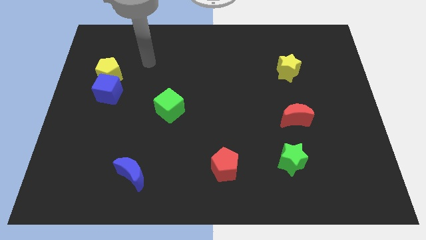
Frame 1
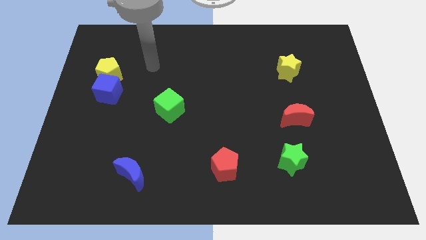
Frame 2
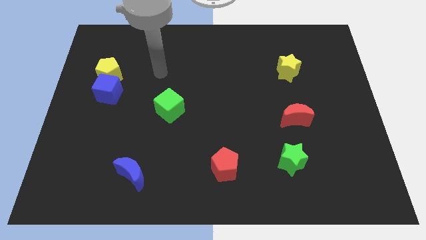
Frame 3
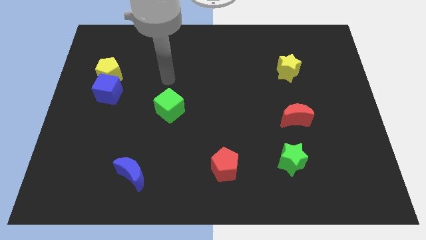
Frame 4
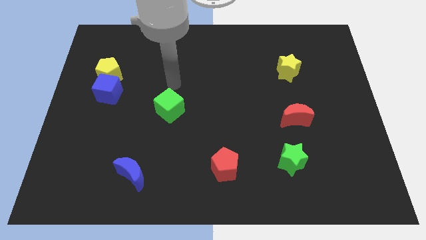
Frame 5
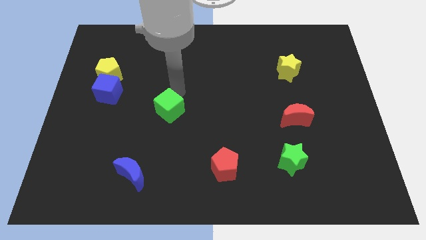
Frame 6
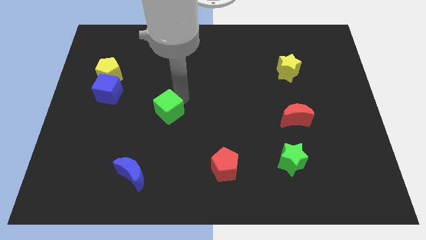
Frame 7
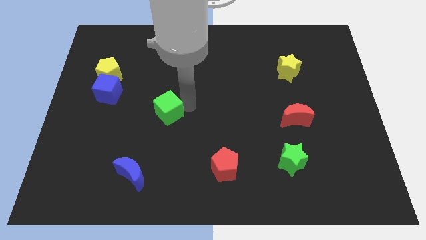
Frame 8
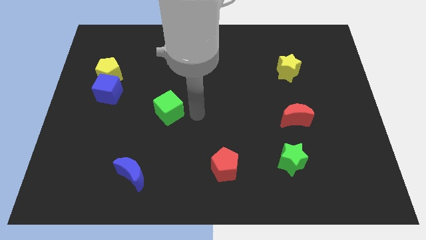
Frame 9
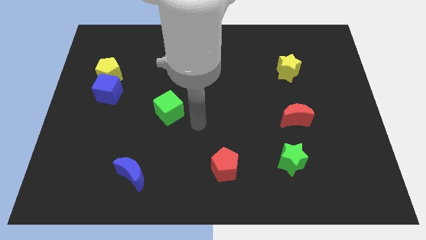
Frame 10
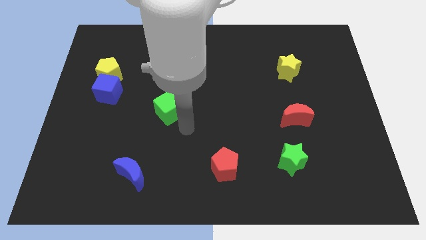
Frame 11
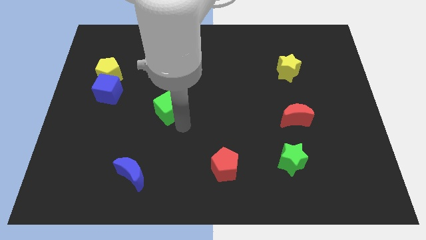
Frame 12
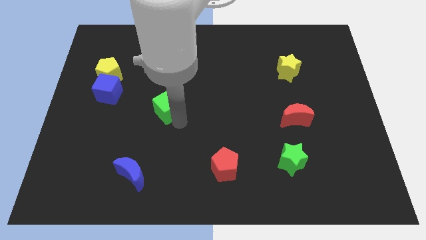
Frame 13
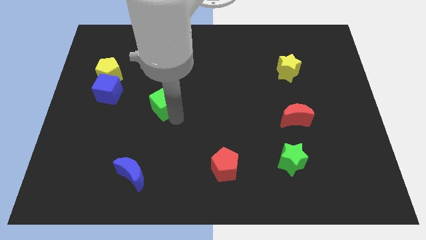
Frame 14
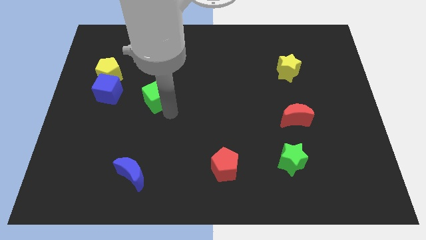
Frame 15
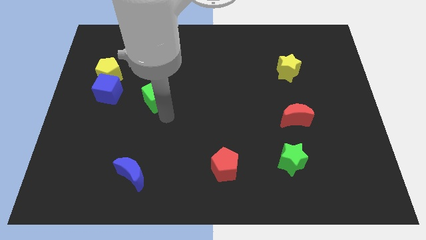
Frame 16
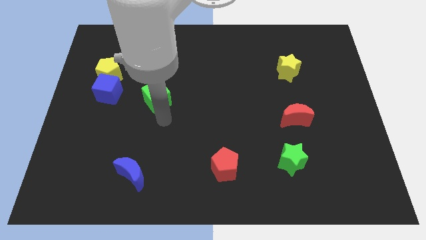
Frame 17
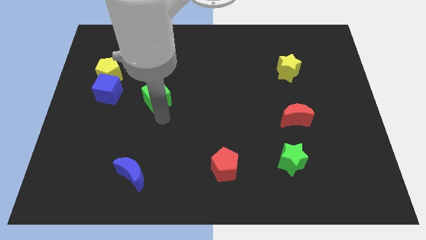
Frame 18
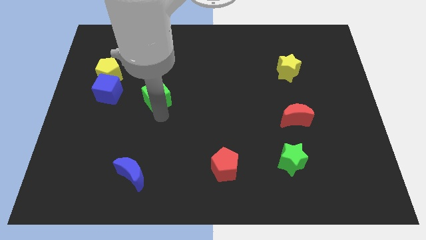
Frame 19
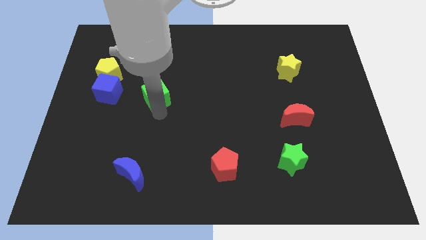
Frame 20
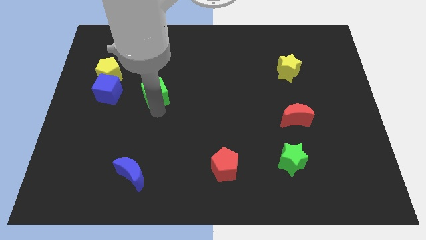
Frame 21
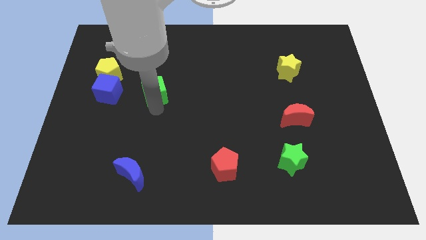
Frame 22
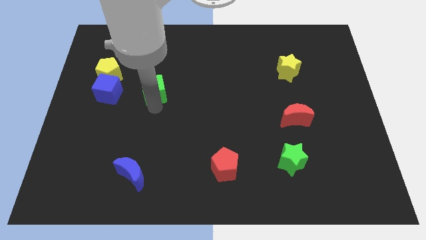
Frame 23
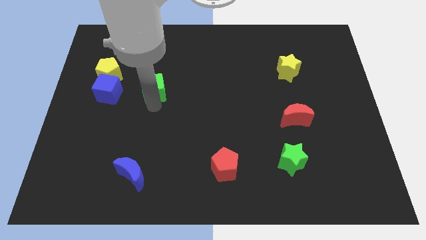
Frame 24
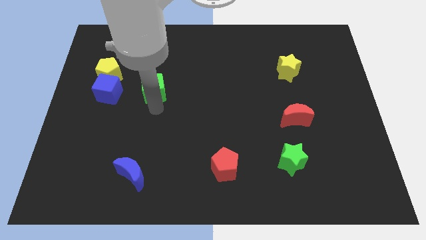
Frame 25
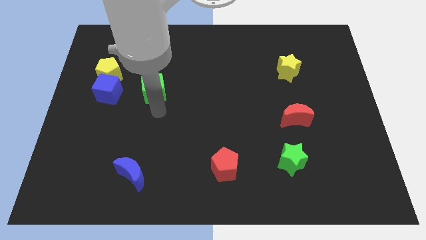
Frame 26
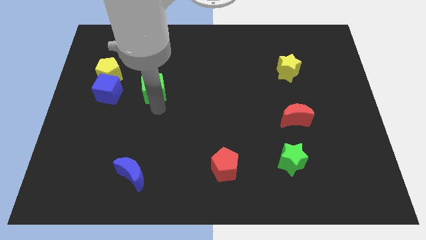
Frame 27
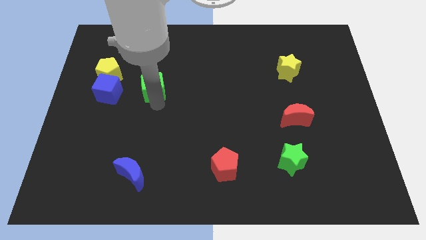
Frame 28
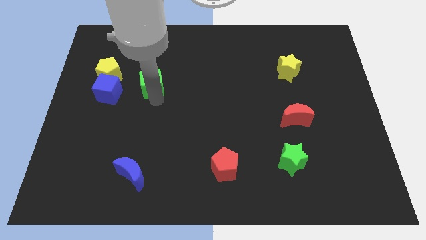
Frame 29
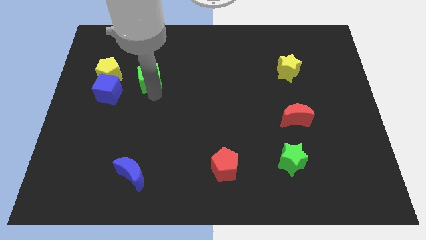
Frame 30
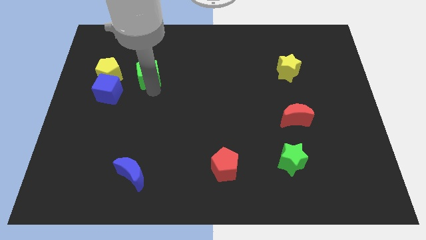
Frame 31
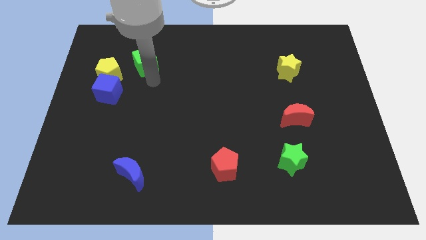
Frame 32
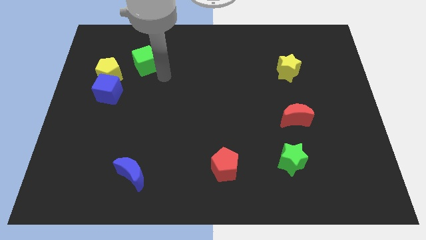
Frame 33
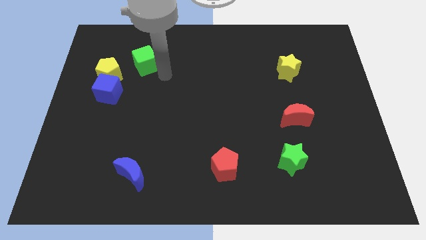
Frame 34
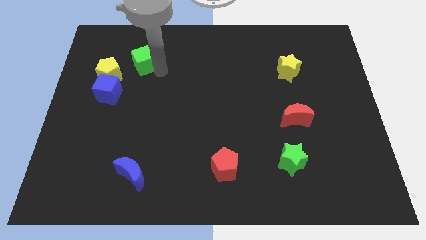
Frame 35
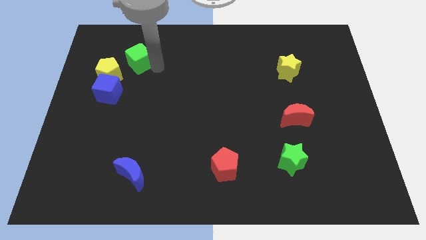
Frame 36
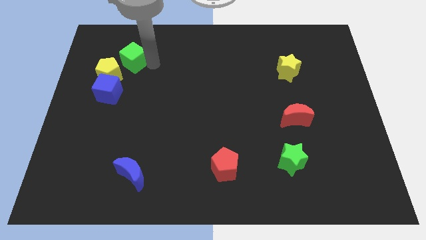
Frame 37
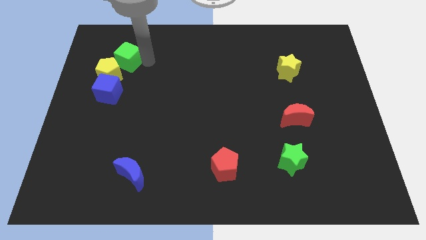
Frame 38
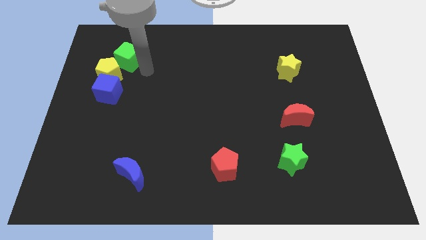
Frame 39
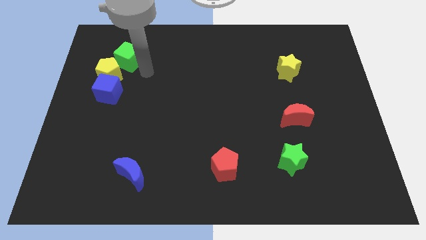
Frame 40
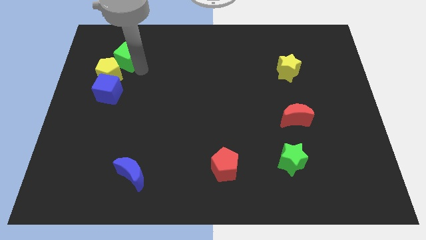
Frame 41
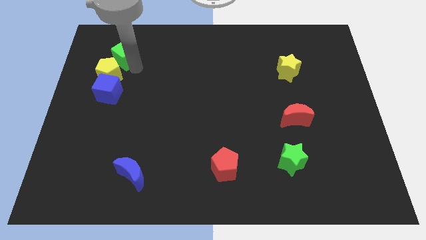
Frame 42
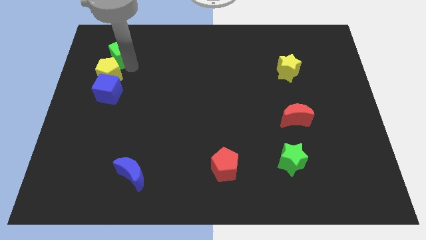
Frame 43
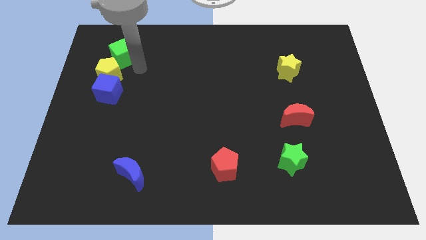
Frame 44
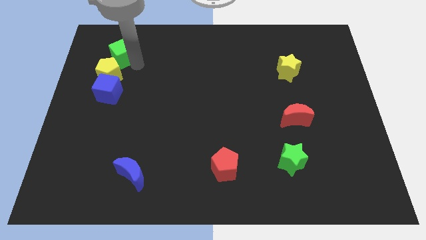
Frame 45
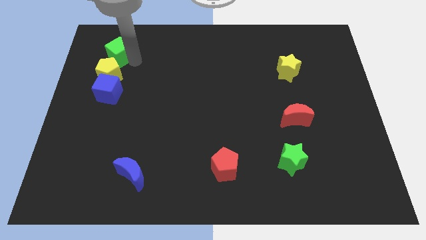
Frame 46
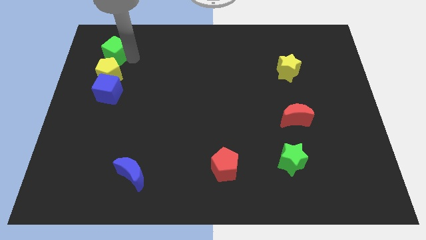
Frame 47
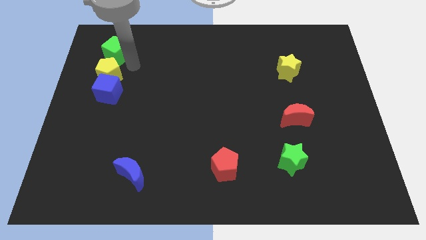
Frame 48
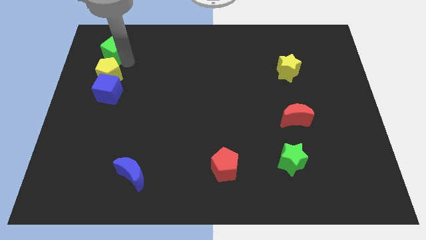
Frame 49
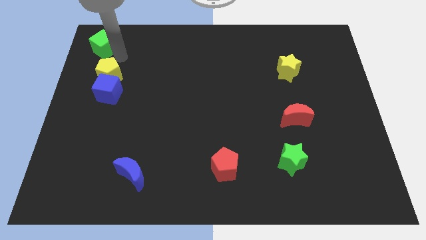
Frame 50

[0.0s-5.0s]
slide the green cube to the top left of the board

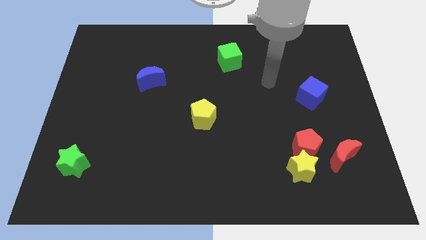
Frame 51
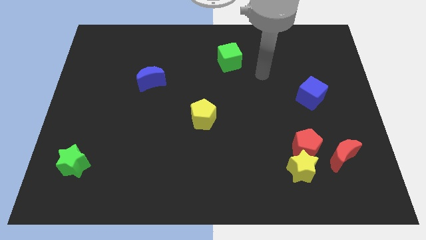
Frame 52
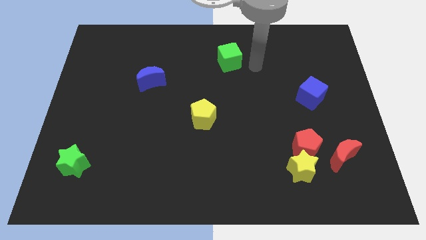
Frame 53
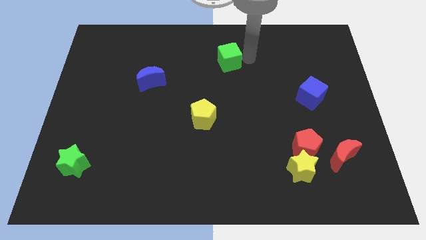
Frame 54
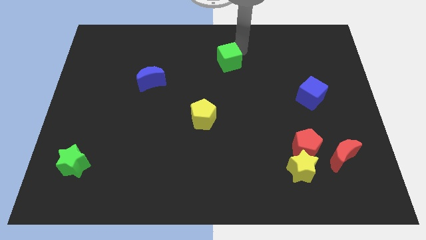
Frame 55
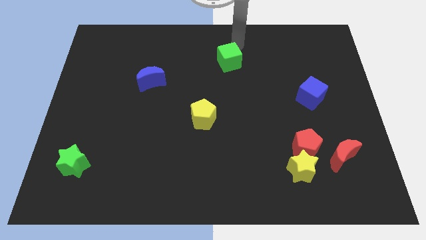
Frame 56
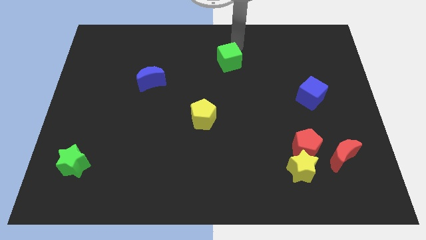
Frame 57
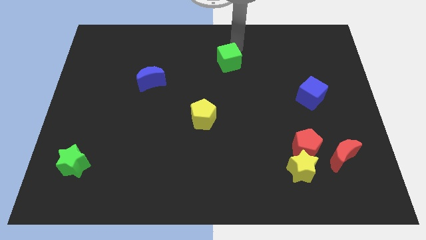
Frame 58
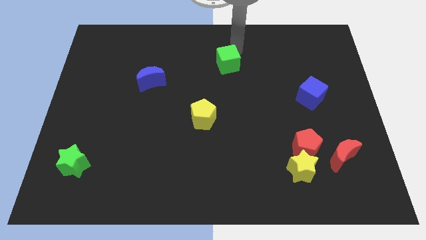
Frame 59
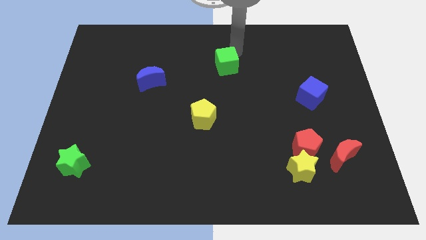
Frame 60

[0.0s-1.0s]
slide the green cube to the middle

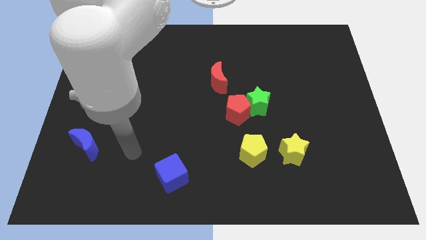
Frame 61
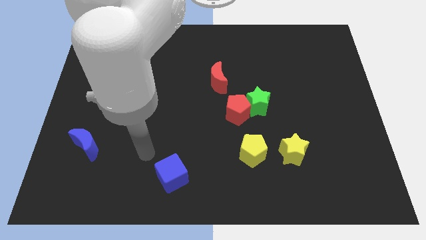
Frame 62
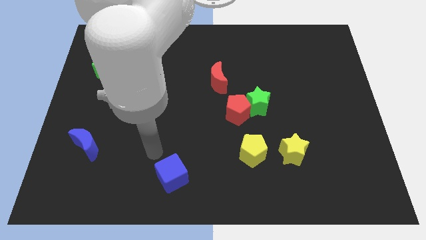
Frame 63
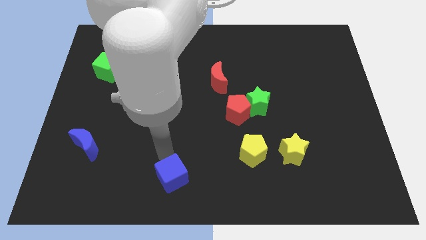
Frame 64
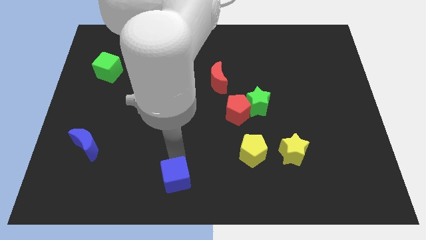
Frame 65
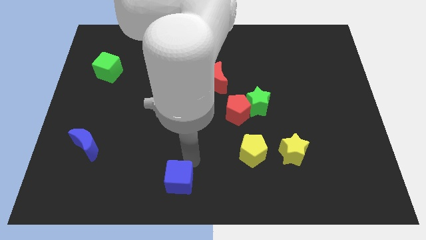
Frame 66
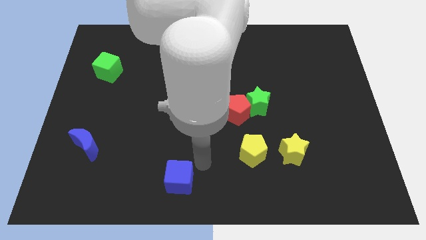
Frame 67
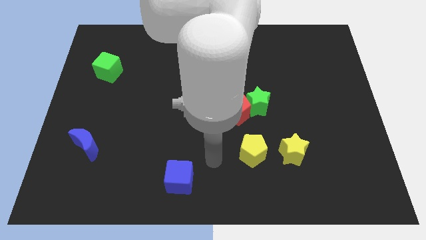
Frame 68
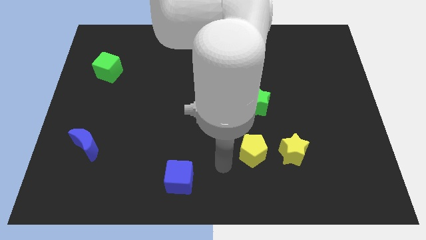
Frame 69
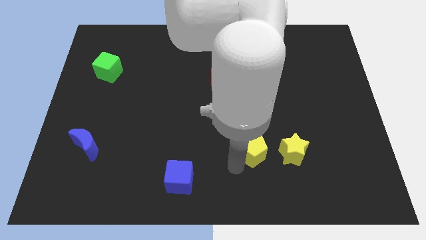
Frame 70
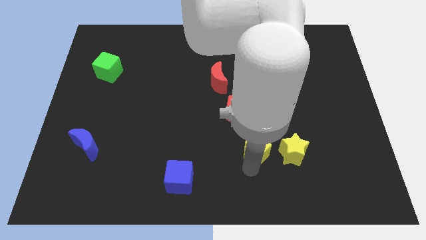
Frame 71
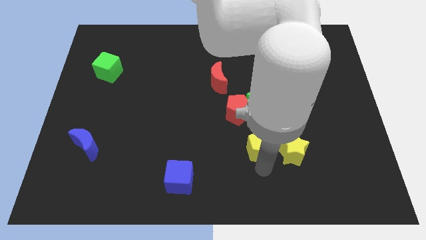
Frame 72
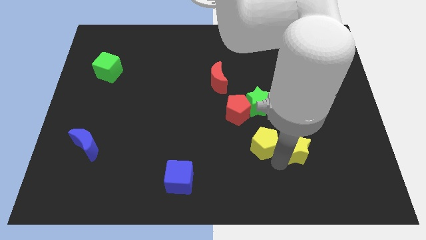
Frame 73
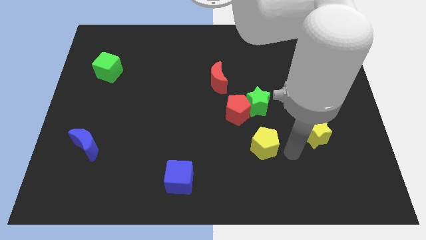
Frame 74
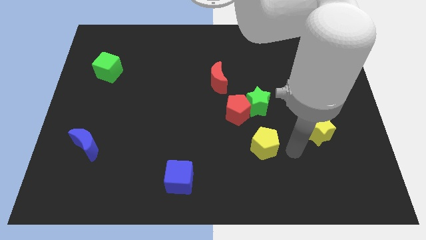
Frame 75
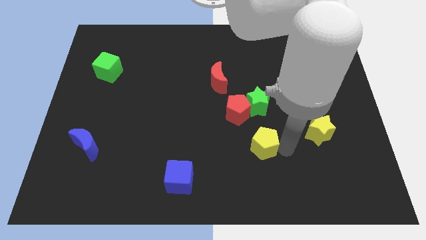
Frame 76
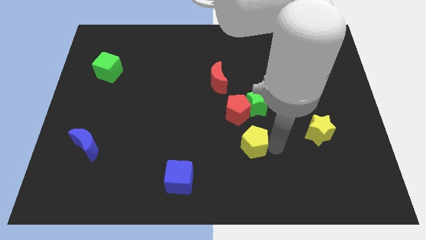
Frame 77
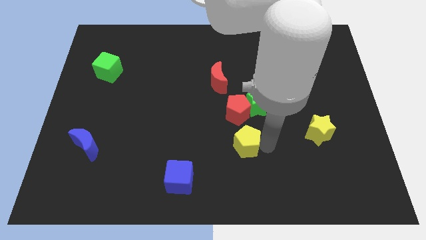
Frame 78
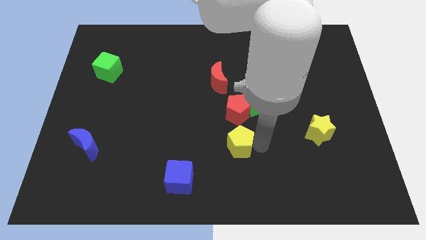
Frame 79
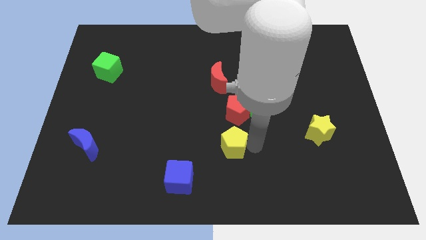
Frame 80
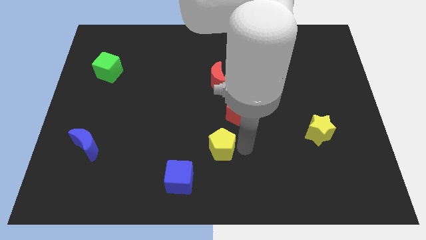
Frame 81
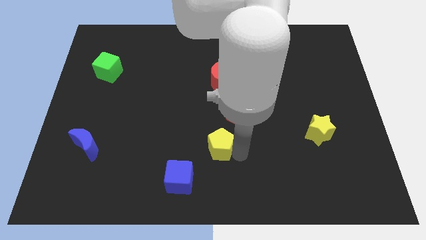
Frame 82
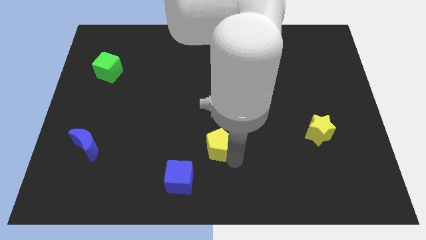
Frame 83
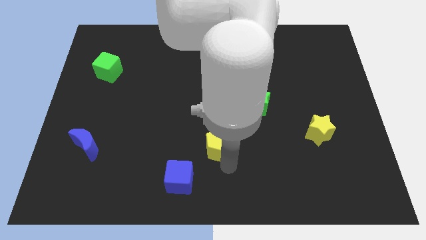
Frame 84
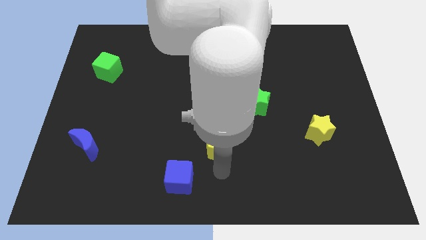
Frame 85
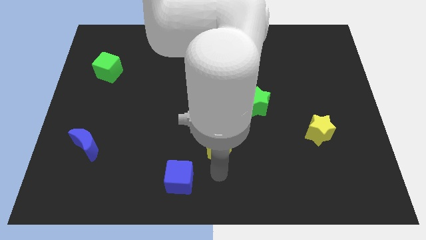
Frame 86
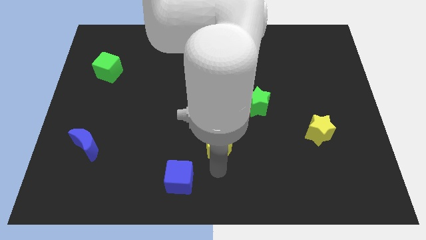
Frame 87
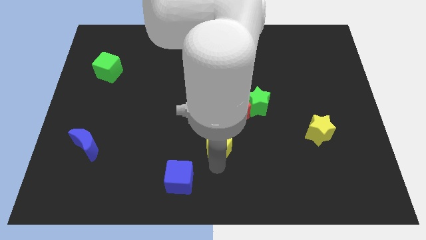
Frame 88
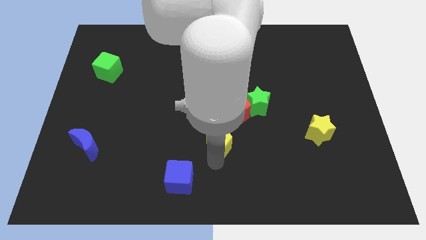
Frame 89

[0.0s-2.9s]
put the yellow pentagon to the center
